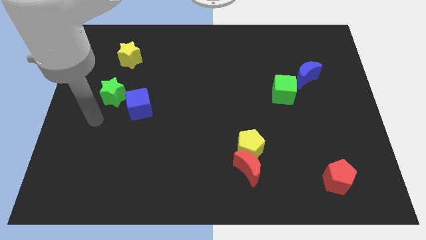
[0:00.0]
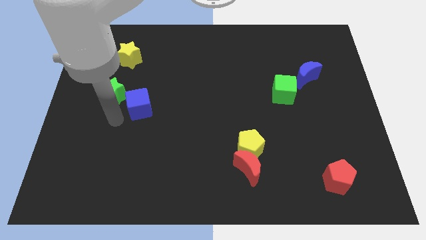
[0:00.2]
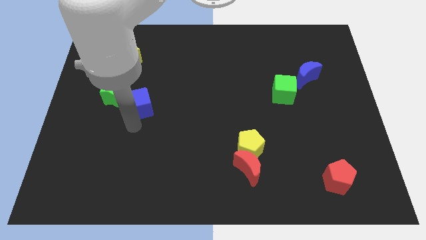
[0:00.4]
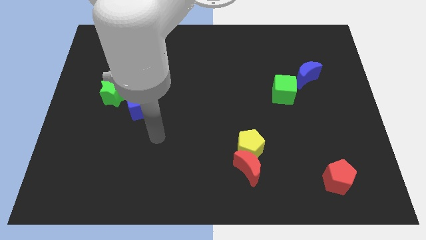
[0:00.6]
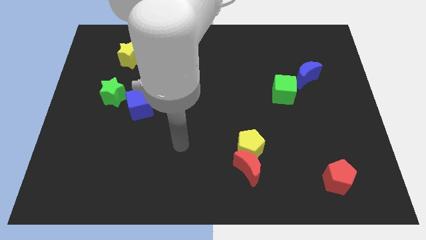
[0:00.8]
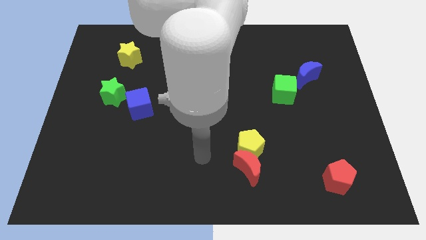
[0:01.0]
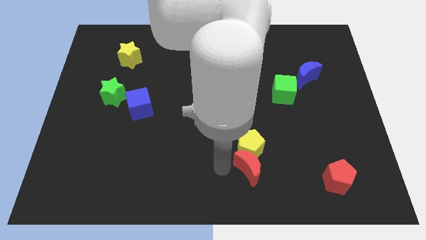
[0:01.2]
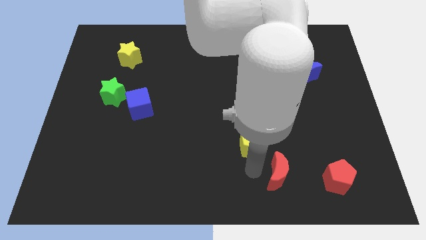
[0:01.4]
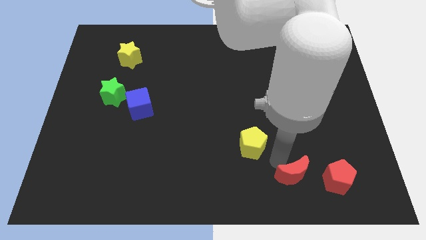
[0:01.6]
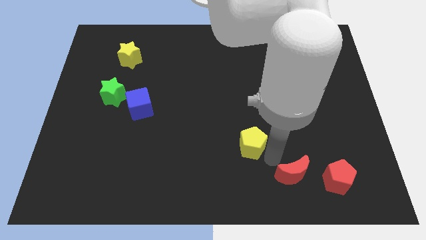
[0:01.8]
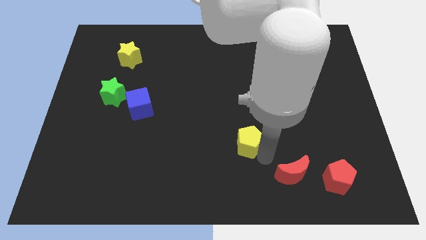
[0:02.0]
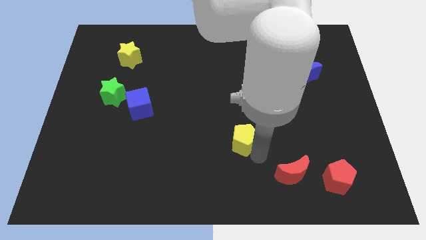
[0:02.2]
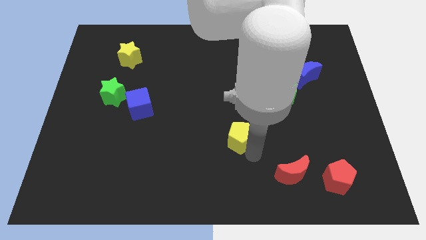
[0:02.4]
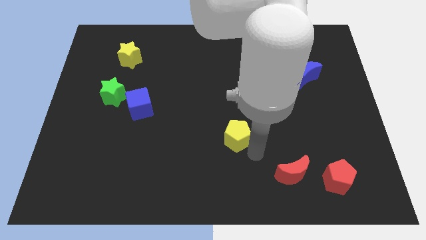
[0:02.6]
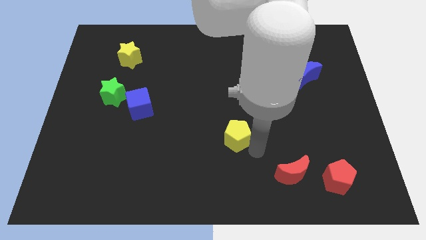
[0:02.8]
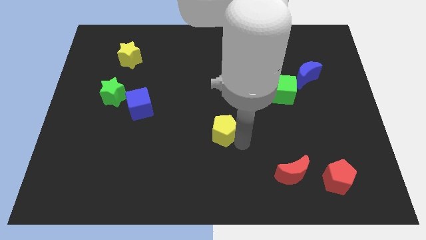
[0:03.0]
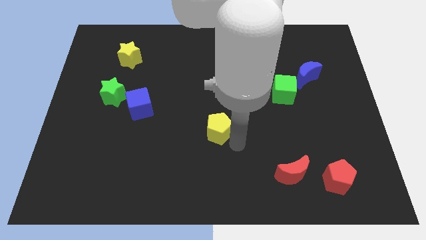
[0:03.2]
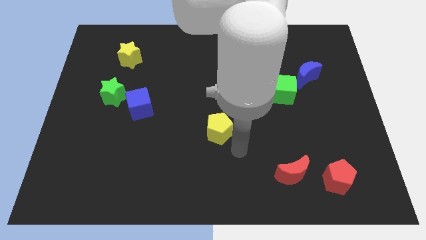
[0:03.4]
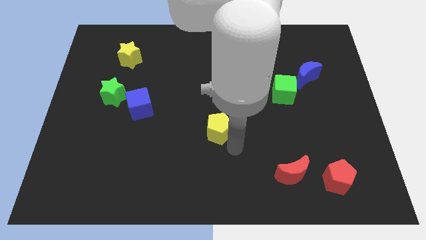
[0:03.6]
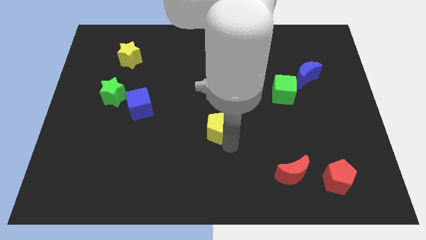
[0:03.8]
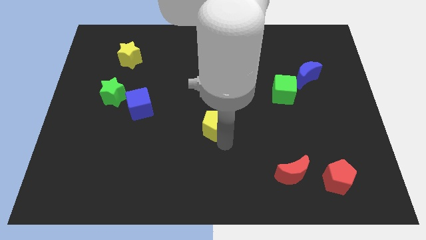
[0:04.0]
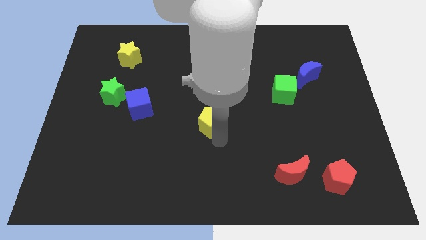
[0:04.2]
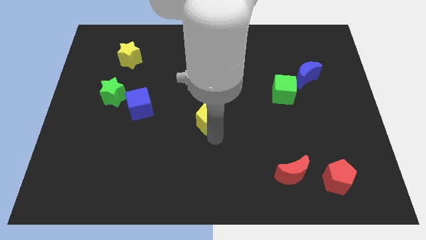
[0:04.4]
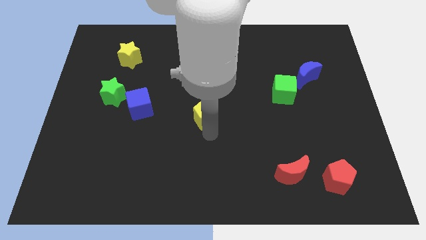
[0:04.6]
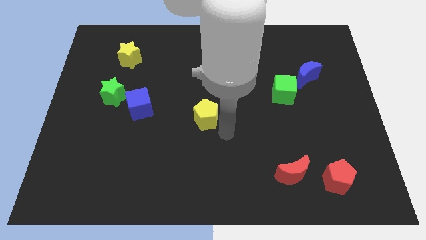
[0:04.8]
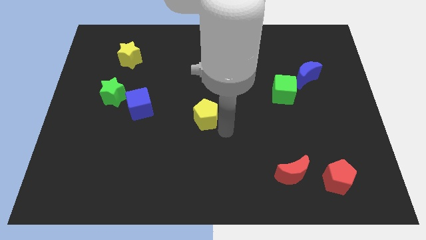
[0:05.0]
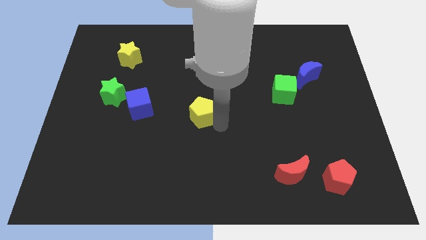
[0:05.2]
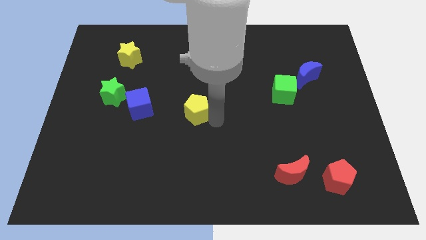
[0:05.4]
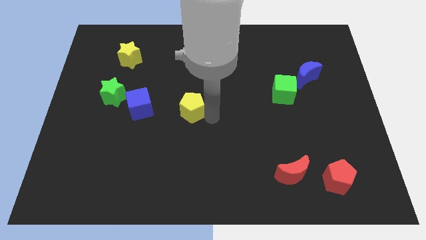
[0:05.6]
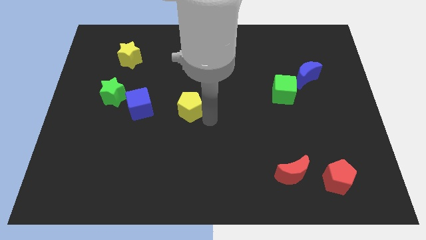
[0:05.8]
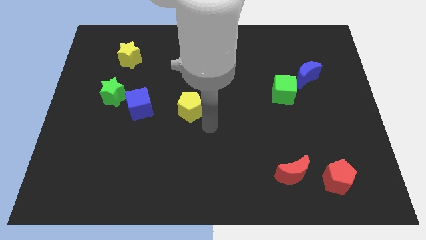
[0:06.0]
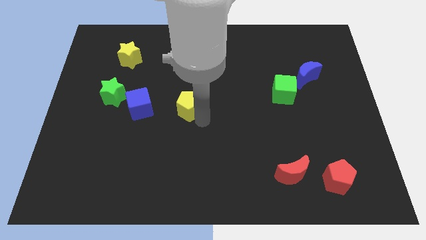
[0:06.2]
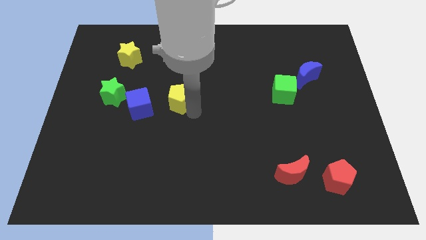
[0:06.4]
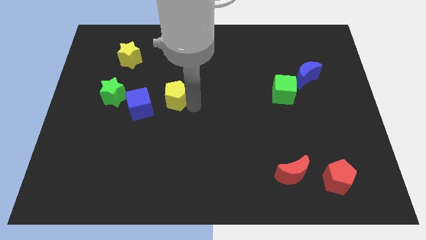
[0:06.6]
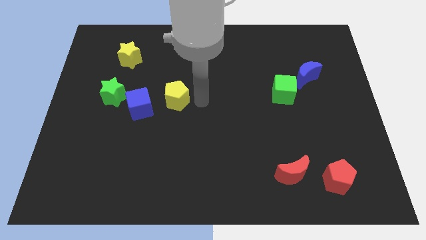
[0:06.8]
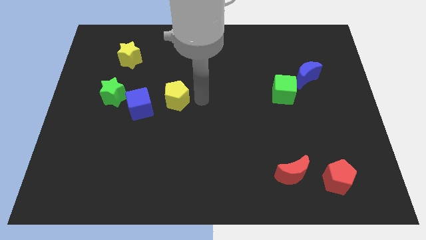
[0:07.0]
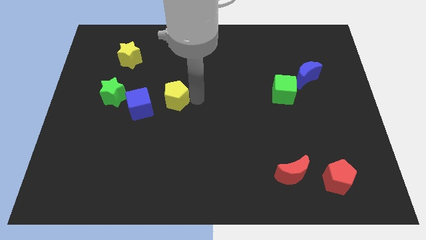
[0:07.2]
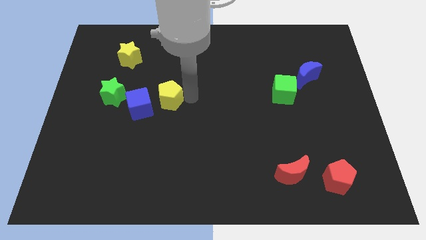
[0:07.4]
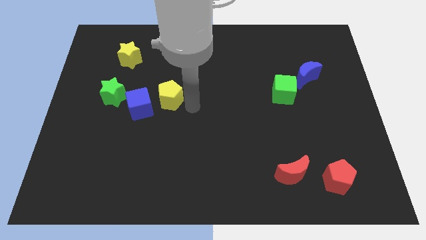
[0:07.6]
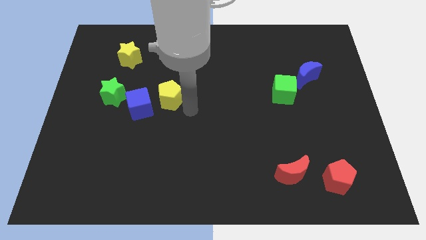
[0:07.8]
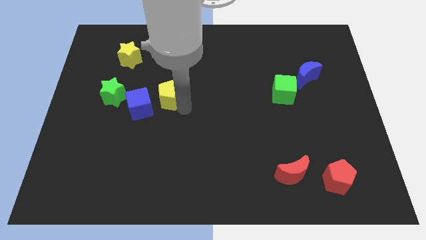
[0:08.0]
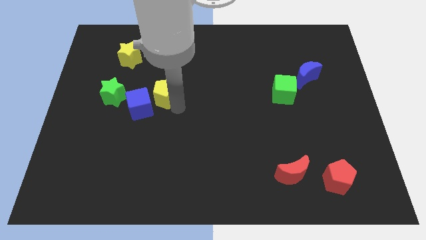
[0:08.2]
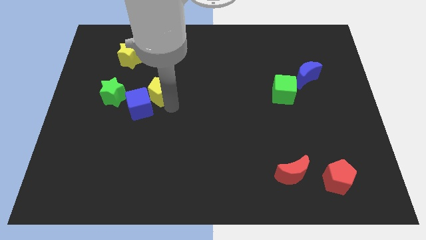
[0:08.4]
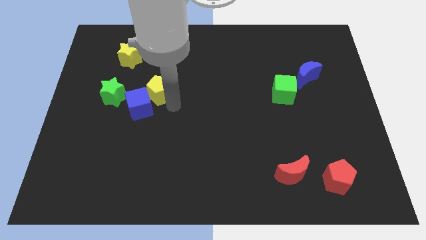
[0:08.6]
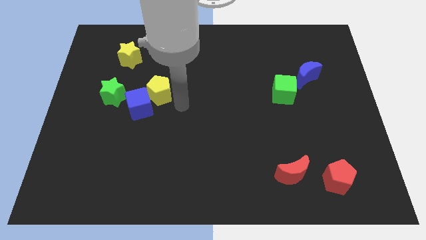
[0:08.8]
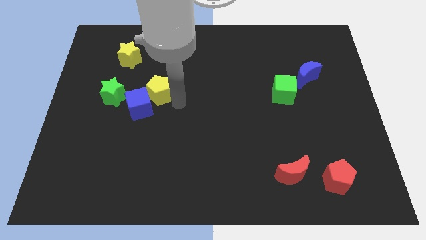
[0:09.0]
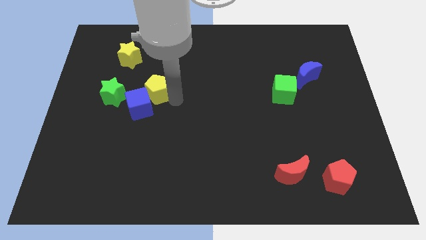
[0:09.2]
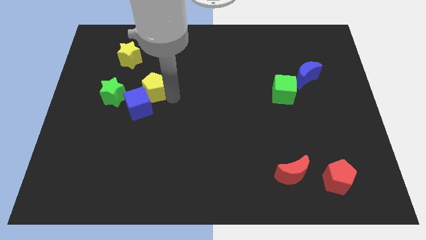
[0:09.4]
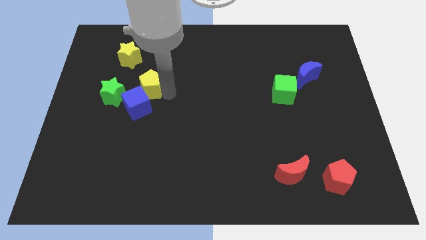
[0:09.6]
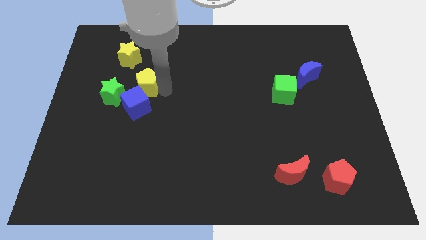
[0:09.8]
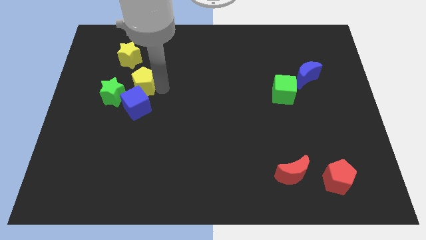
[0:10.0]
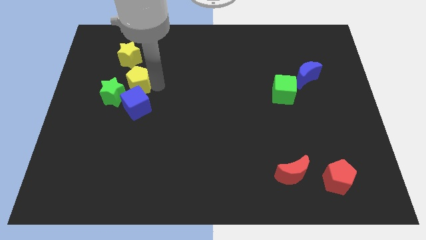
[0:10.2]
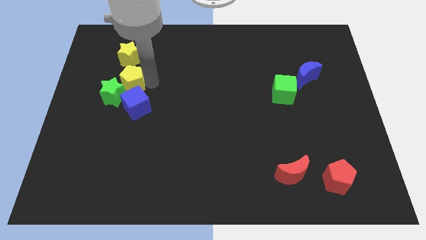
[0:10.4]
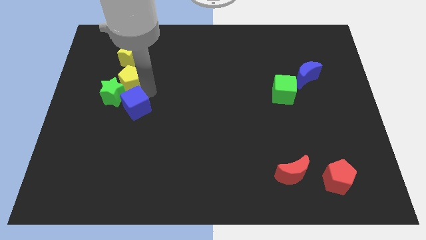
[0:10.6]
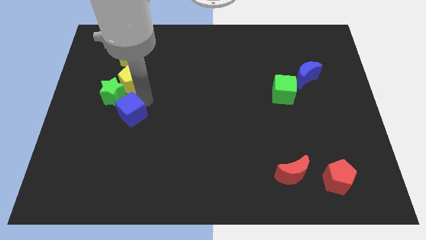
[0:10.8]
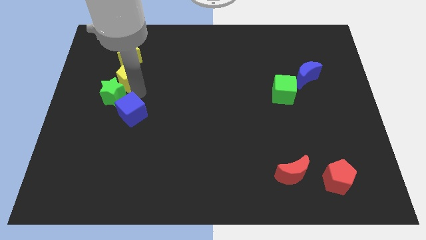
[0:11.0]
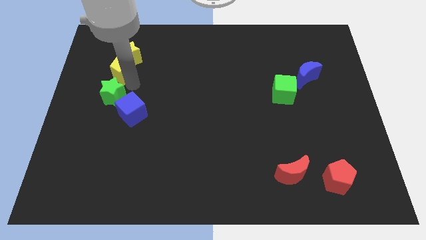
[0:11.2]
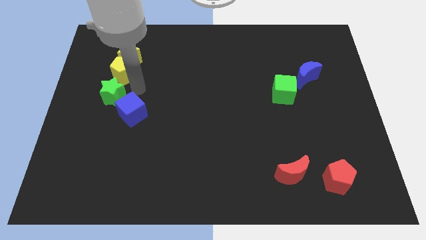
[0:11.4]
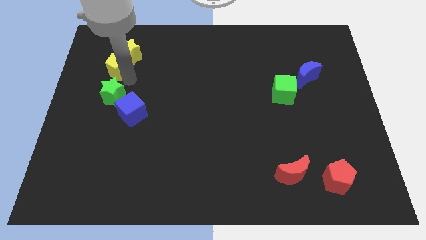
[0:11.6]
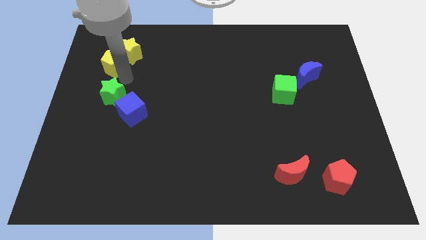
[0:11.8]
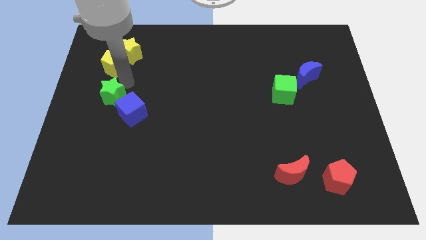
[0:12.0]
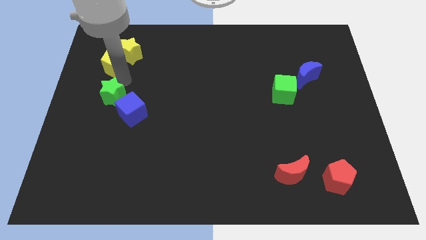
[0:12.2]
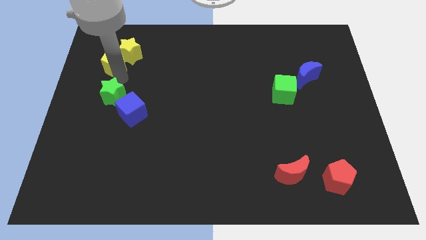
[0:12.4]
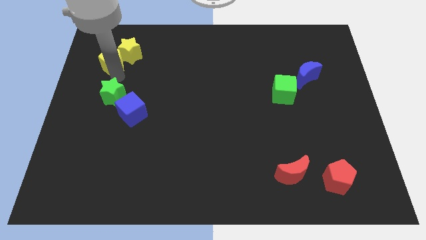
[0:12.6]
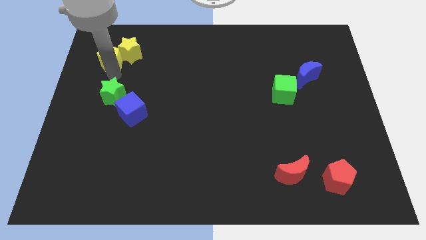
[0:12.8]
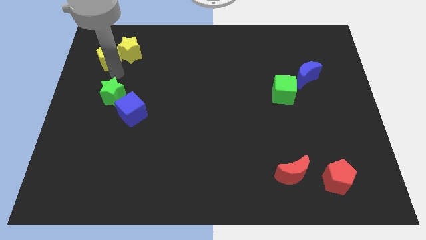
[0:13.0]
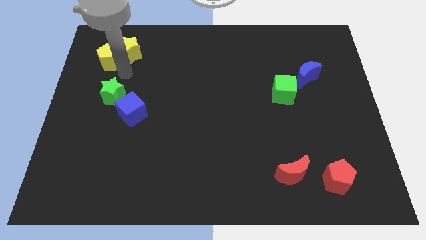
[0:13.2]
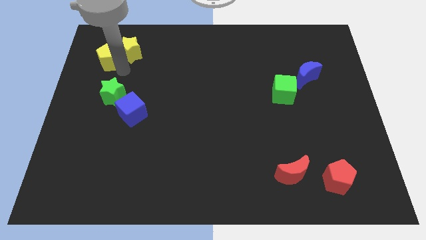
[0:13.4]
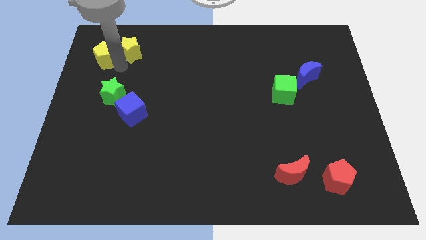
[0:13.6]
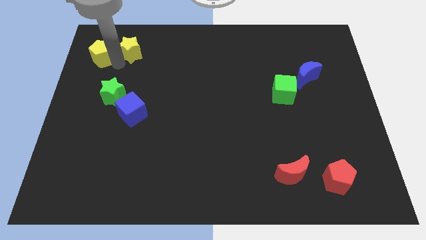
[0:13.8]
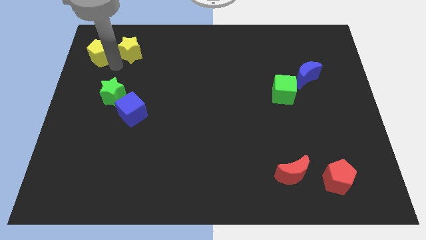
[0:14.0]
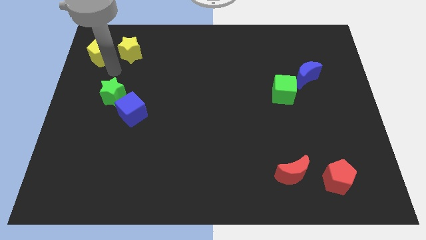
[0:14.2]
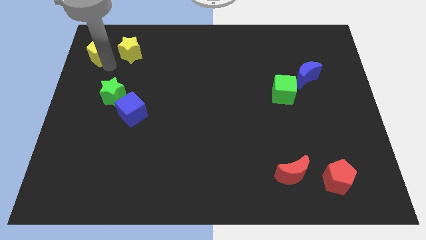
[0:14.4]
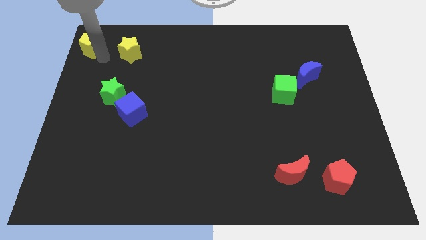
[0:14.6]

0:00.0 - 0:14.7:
move the yellow pentagon to the upper left corner

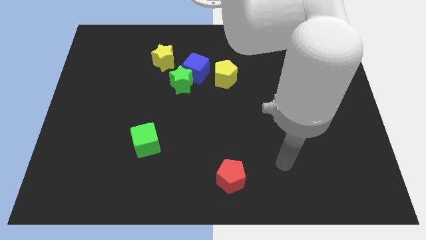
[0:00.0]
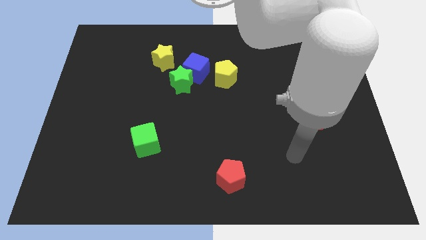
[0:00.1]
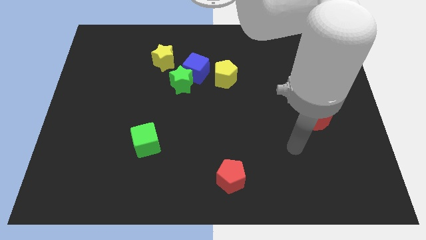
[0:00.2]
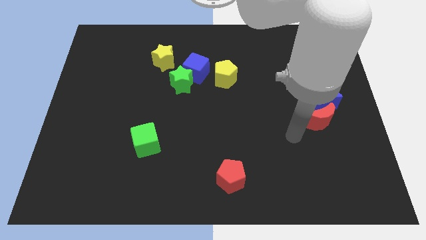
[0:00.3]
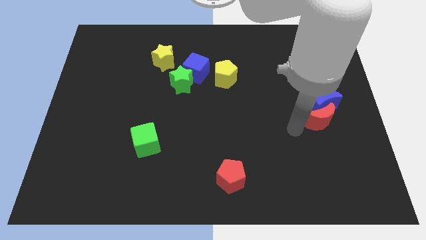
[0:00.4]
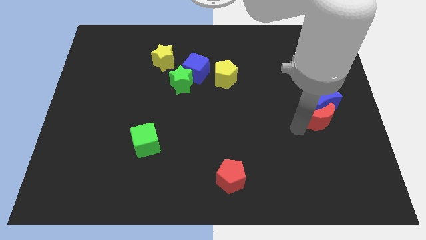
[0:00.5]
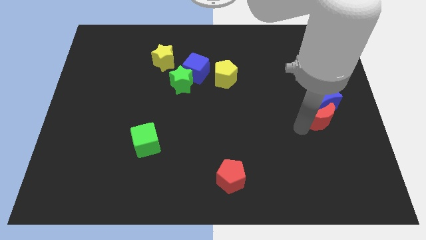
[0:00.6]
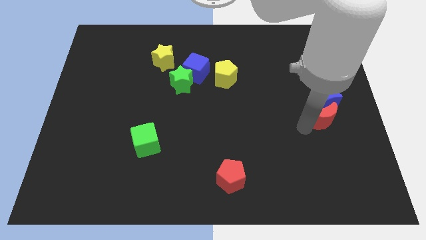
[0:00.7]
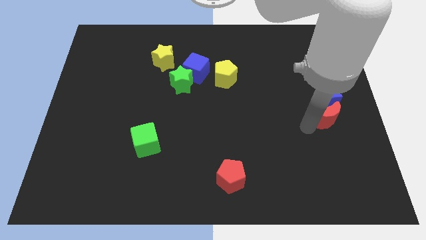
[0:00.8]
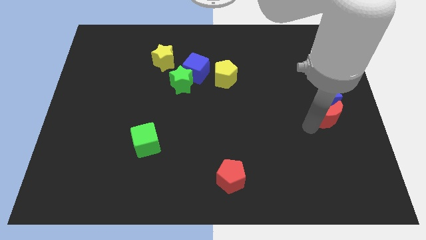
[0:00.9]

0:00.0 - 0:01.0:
move the red moon to the center right
